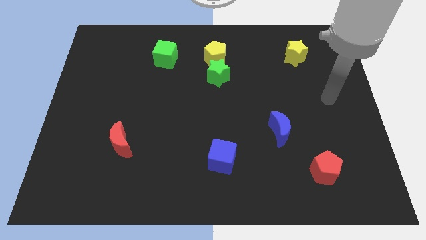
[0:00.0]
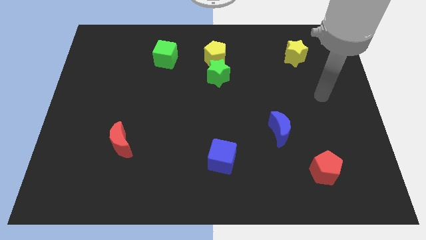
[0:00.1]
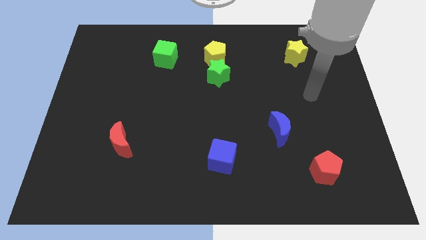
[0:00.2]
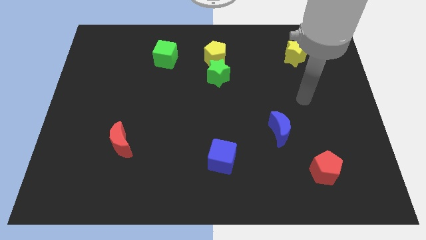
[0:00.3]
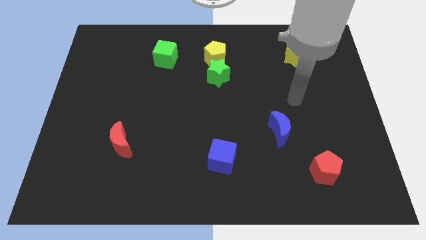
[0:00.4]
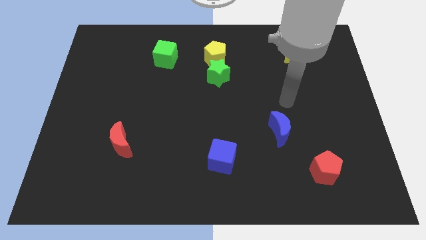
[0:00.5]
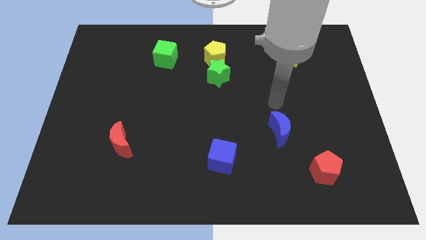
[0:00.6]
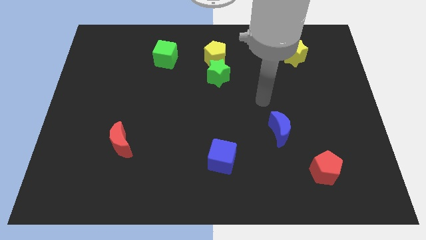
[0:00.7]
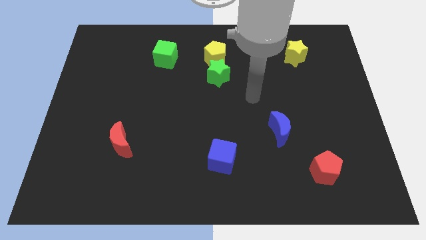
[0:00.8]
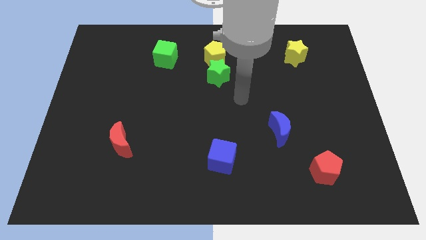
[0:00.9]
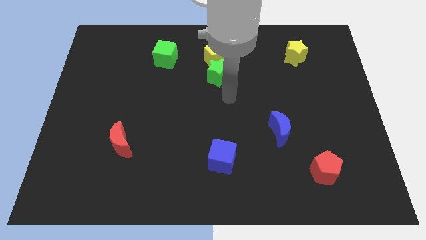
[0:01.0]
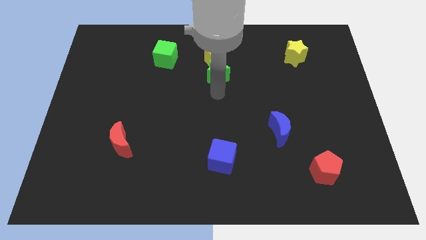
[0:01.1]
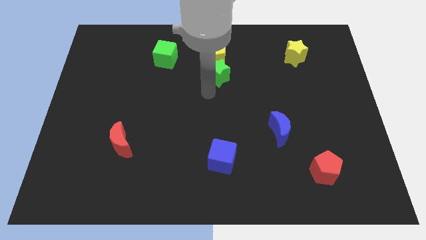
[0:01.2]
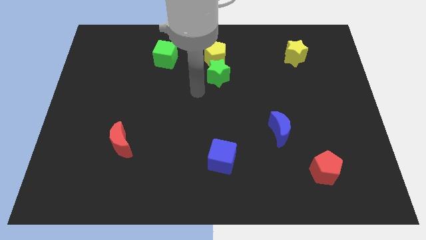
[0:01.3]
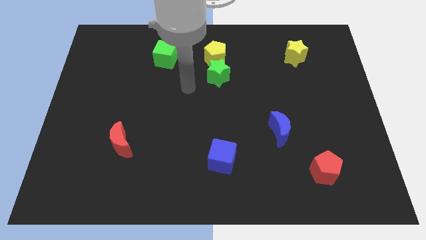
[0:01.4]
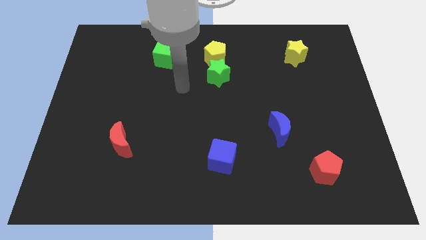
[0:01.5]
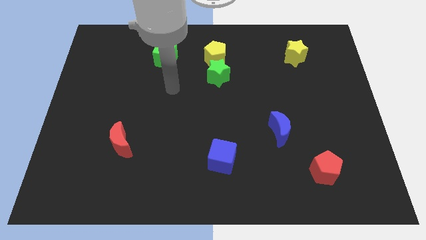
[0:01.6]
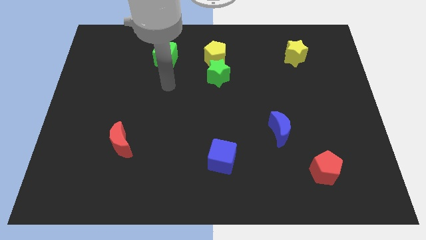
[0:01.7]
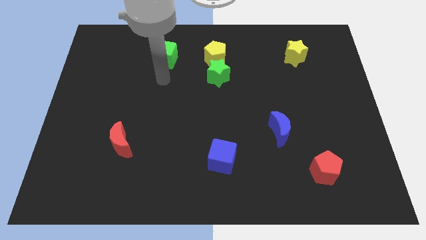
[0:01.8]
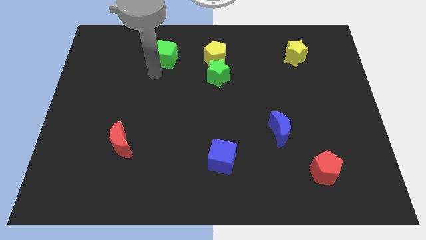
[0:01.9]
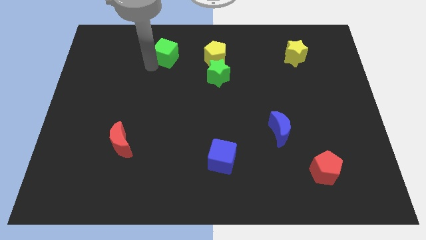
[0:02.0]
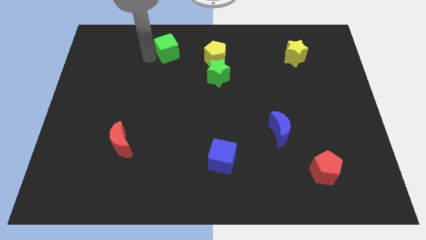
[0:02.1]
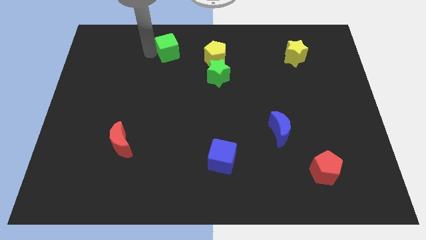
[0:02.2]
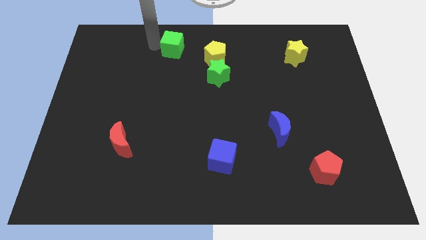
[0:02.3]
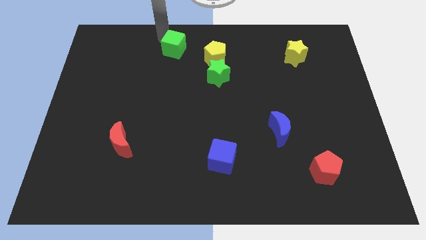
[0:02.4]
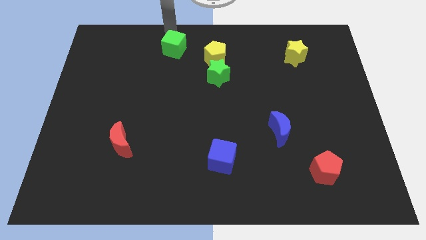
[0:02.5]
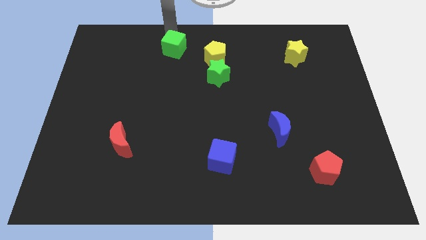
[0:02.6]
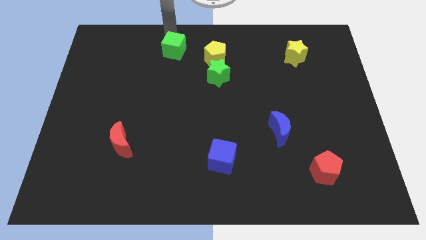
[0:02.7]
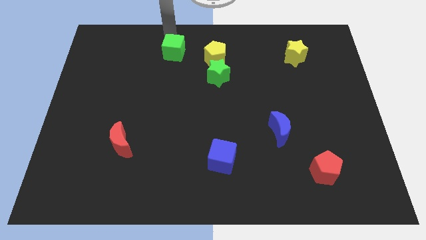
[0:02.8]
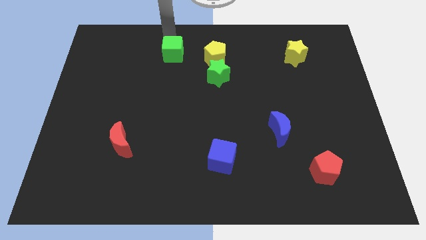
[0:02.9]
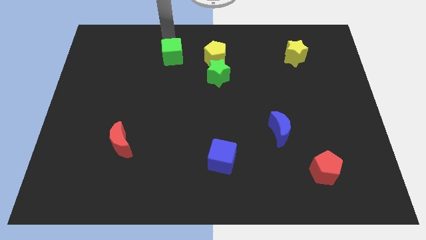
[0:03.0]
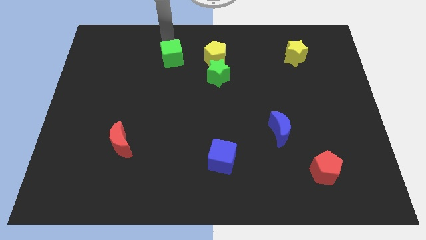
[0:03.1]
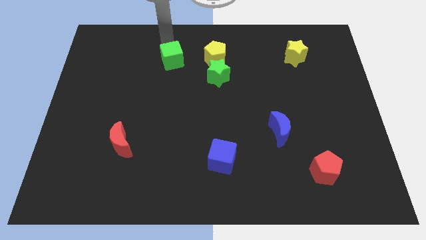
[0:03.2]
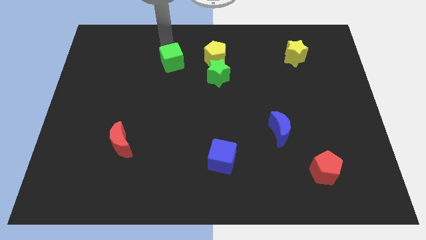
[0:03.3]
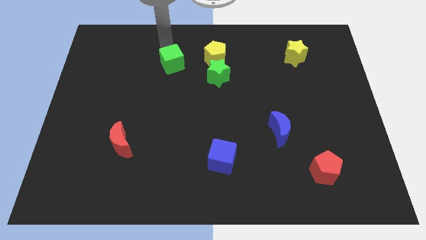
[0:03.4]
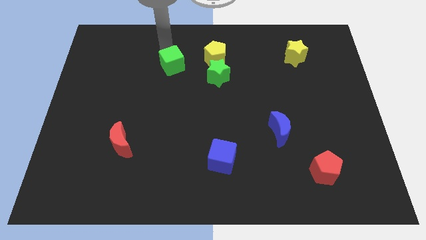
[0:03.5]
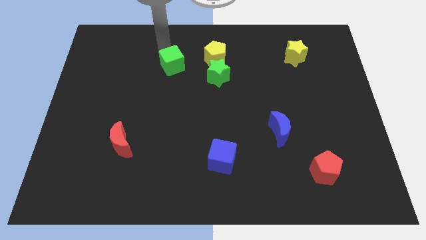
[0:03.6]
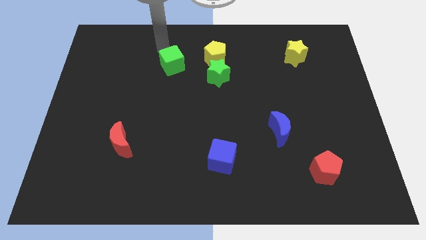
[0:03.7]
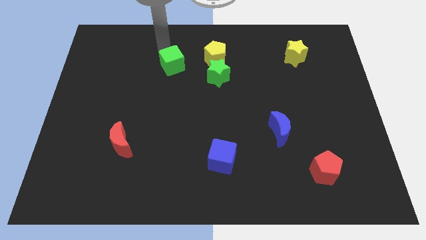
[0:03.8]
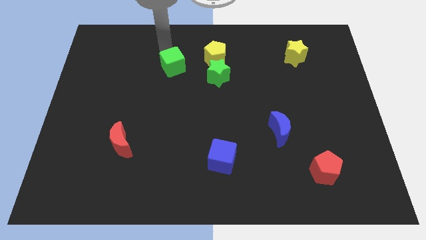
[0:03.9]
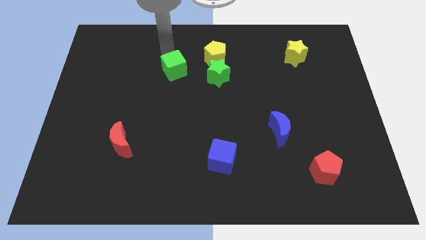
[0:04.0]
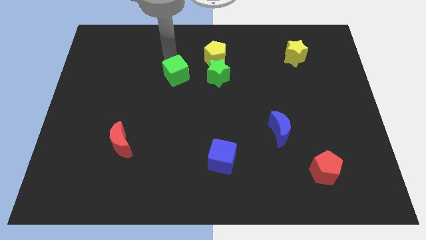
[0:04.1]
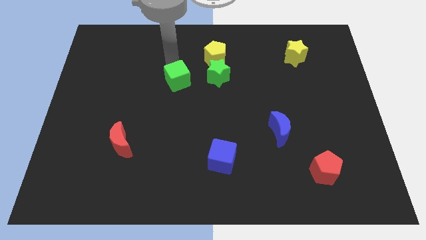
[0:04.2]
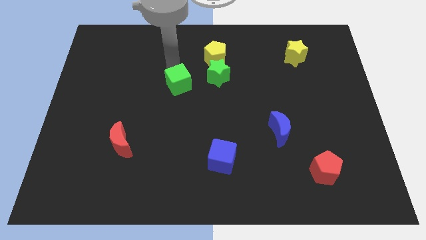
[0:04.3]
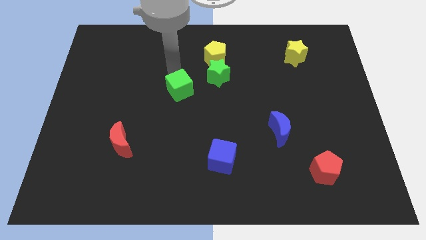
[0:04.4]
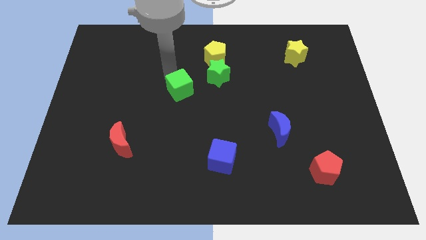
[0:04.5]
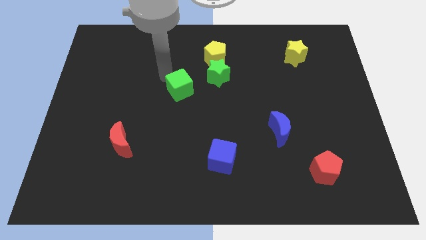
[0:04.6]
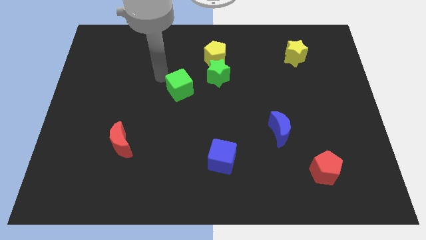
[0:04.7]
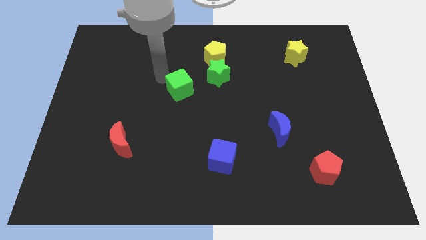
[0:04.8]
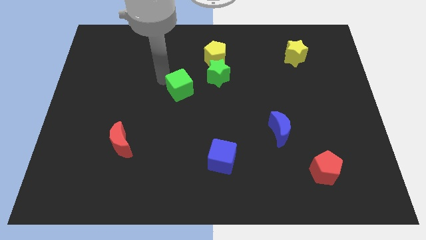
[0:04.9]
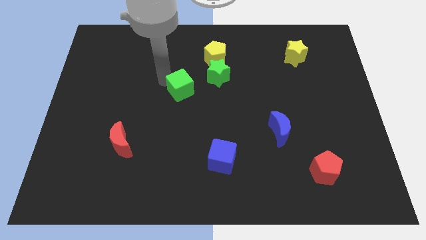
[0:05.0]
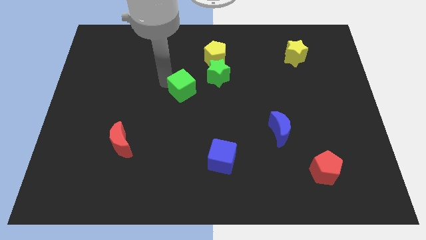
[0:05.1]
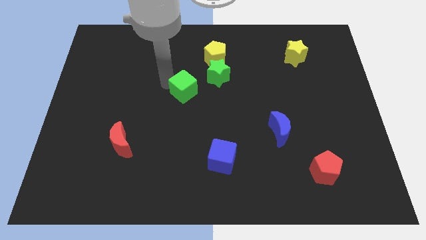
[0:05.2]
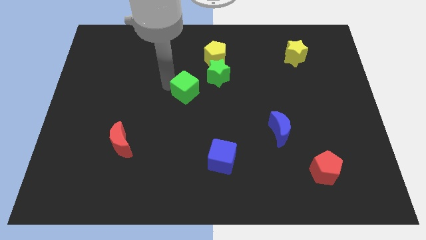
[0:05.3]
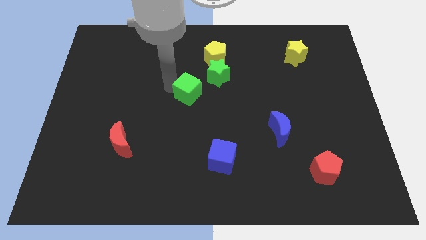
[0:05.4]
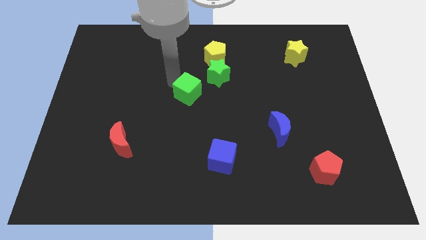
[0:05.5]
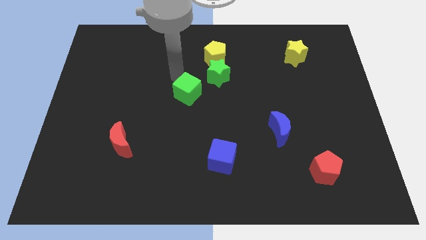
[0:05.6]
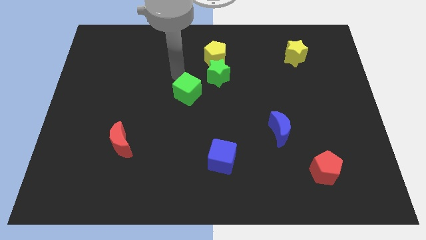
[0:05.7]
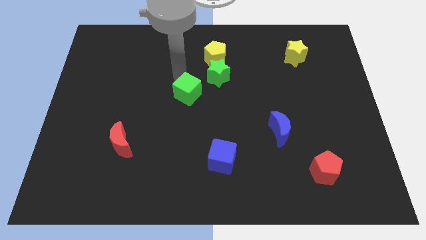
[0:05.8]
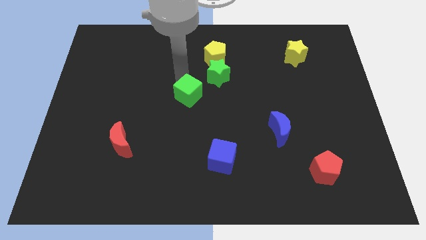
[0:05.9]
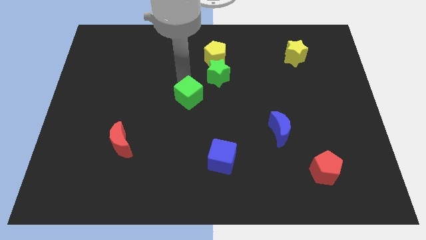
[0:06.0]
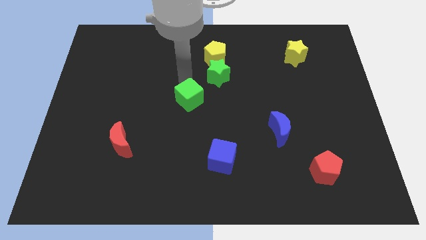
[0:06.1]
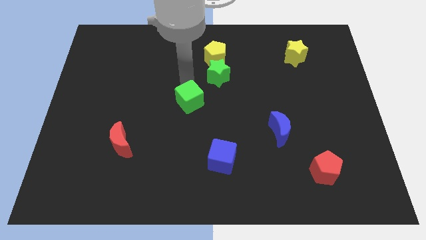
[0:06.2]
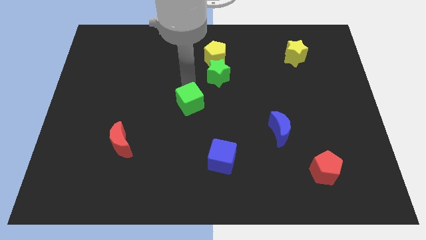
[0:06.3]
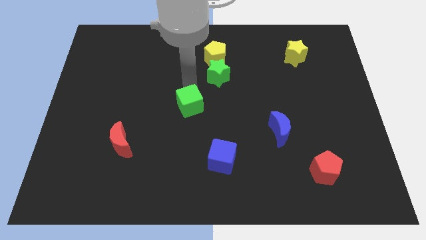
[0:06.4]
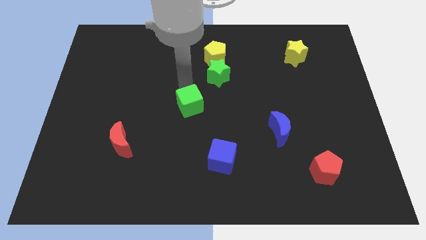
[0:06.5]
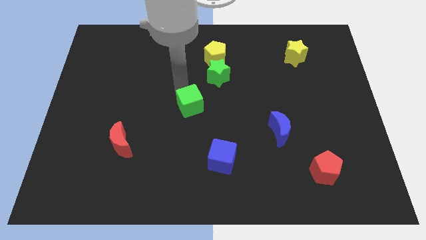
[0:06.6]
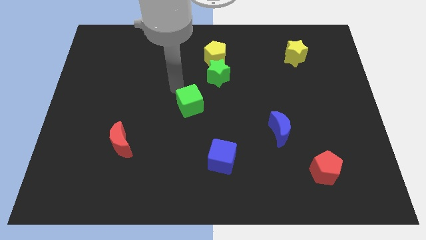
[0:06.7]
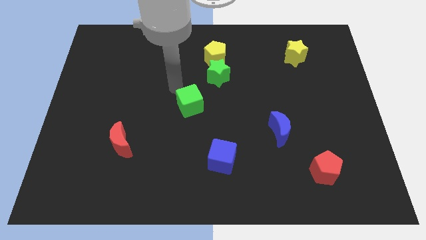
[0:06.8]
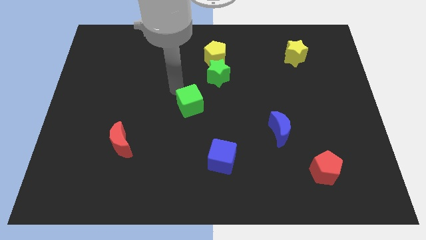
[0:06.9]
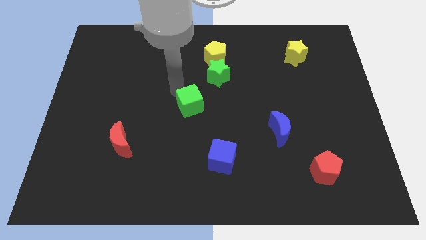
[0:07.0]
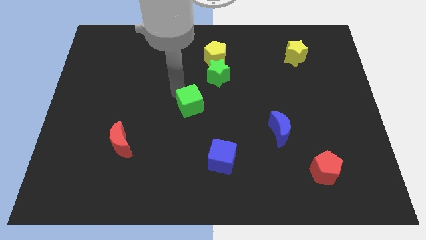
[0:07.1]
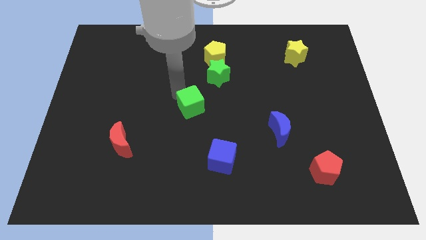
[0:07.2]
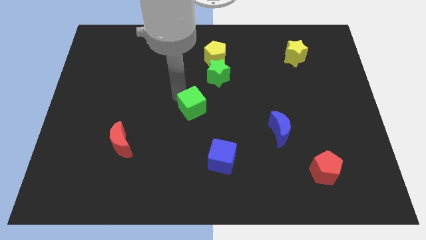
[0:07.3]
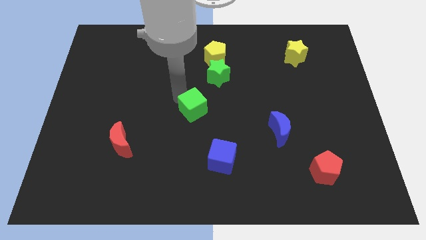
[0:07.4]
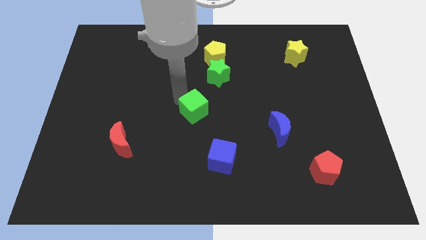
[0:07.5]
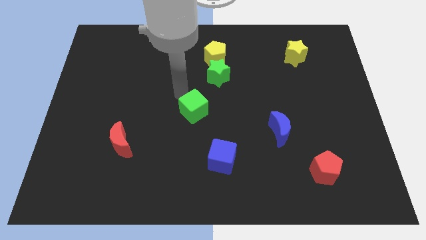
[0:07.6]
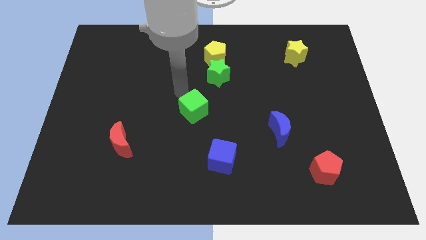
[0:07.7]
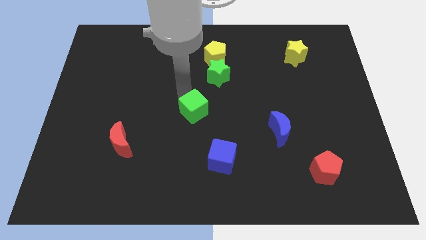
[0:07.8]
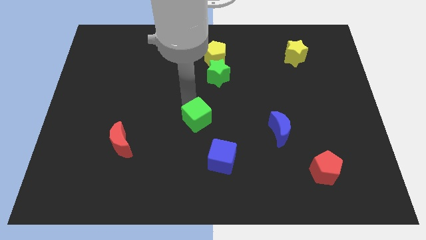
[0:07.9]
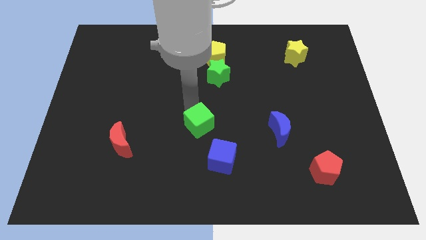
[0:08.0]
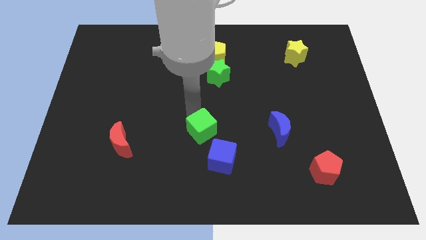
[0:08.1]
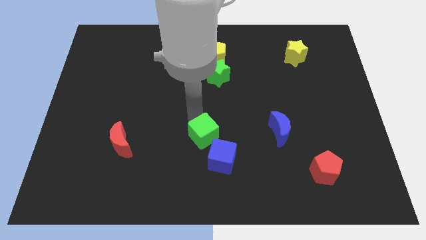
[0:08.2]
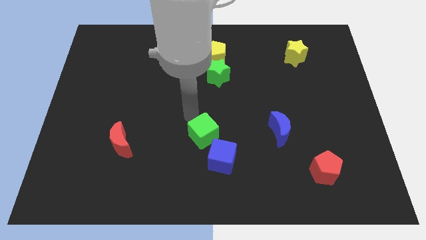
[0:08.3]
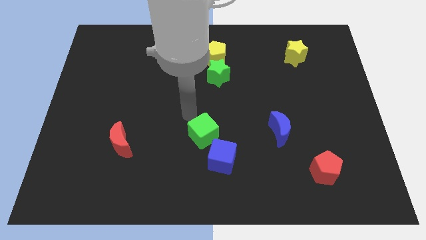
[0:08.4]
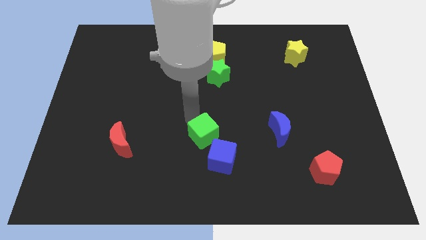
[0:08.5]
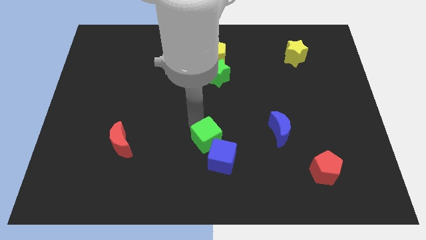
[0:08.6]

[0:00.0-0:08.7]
slide the green cube next to the blue cube
